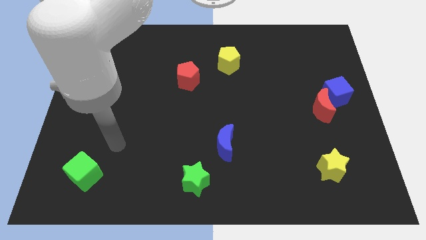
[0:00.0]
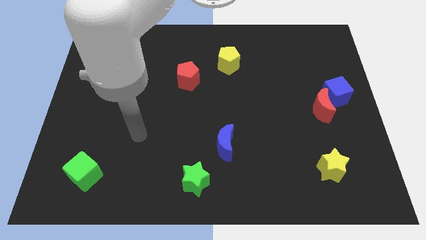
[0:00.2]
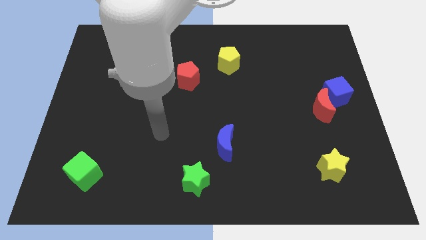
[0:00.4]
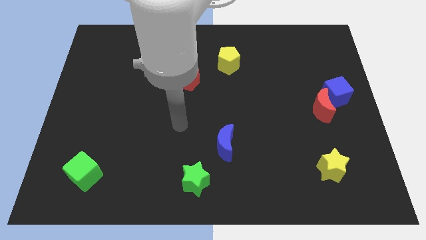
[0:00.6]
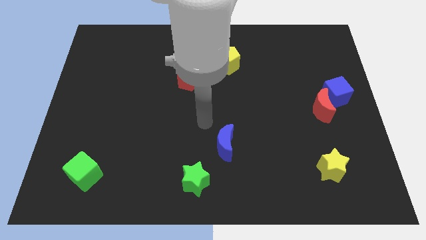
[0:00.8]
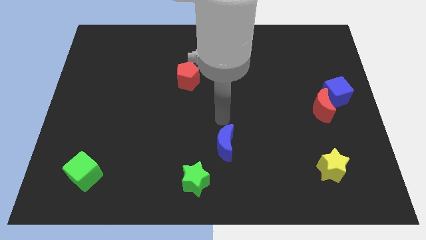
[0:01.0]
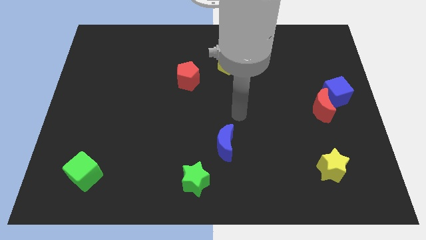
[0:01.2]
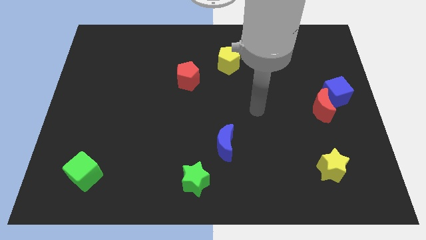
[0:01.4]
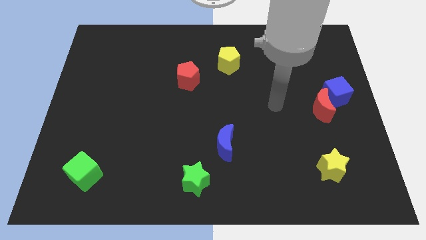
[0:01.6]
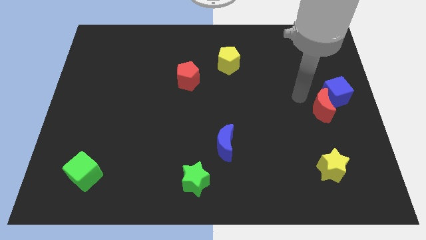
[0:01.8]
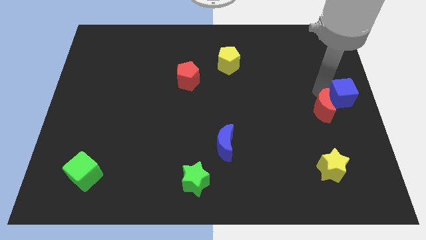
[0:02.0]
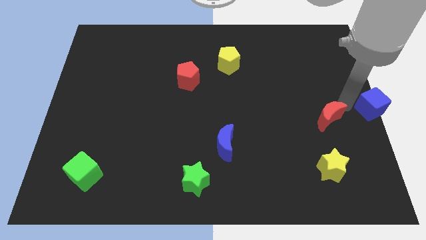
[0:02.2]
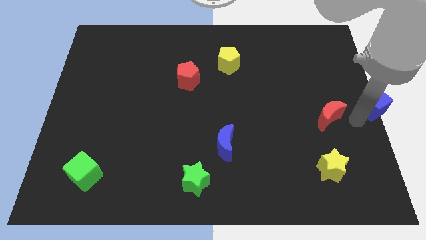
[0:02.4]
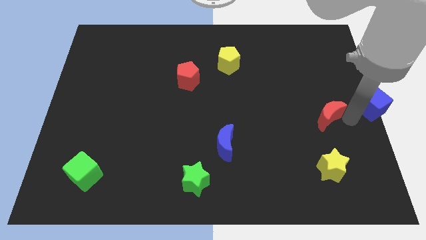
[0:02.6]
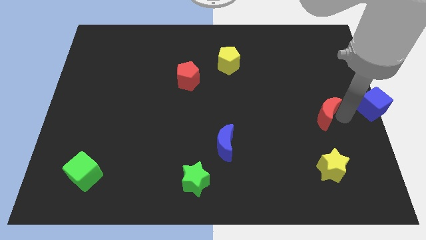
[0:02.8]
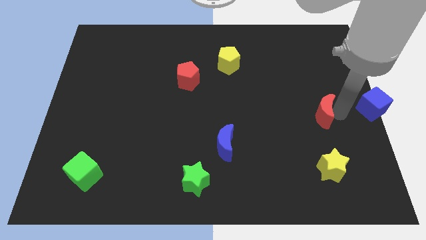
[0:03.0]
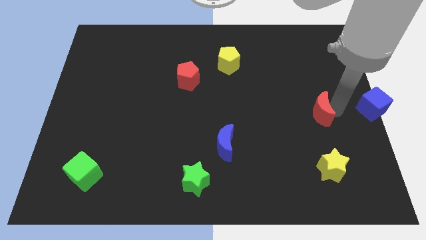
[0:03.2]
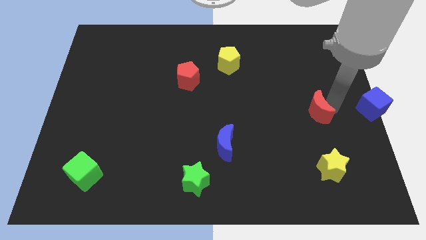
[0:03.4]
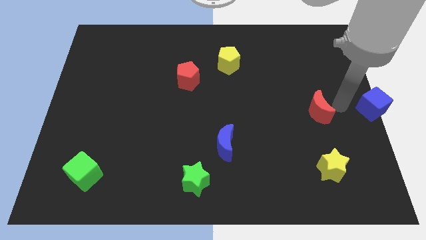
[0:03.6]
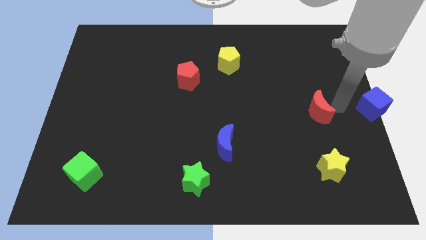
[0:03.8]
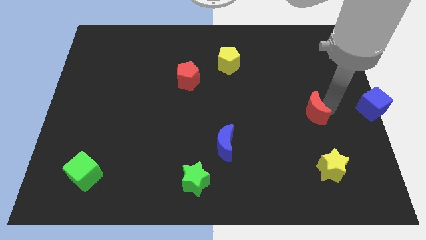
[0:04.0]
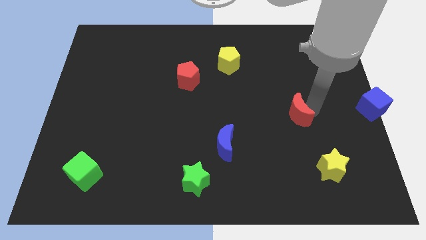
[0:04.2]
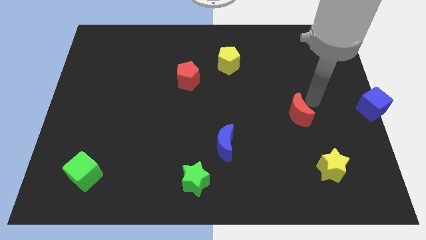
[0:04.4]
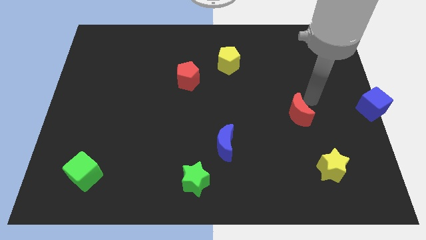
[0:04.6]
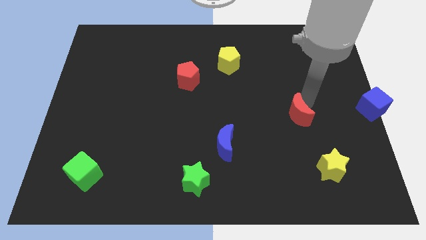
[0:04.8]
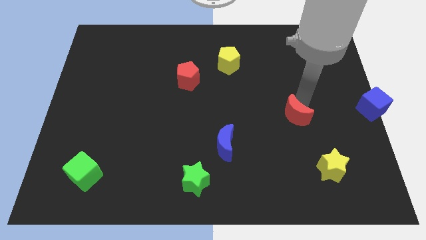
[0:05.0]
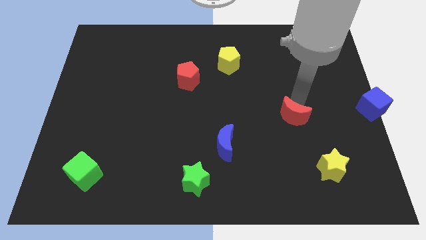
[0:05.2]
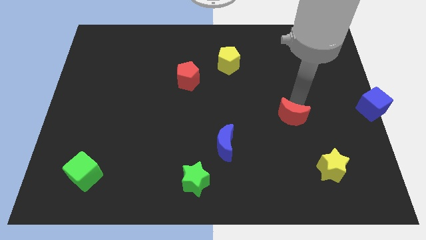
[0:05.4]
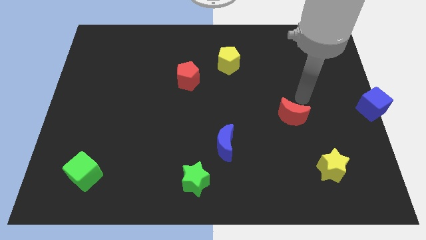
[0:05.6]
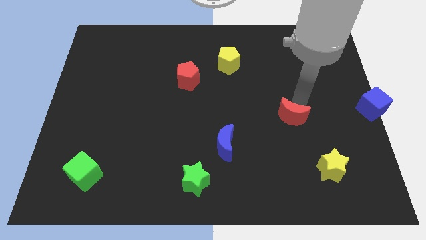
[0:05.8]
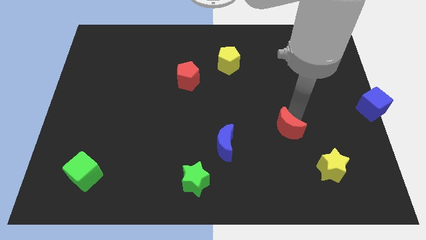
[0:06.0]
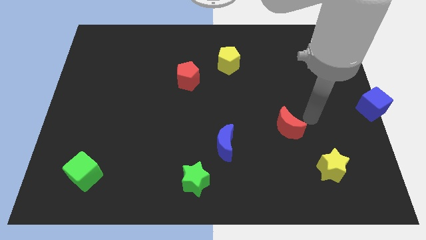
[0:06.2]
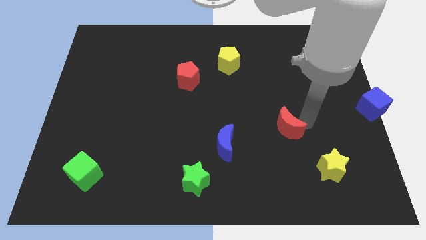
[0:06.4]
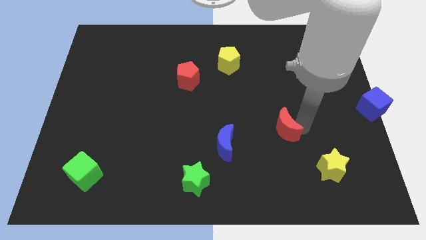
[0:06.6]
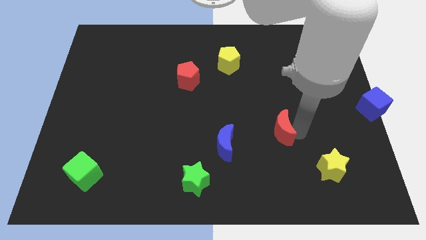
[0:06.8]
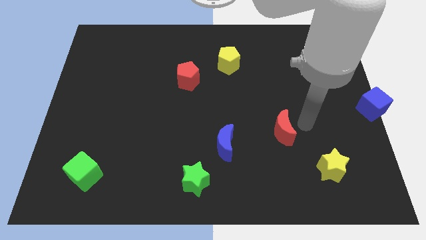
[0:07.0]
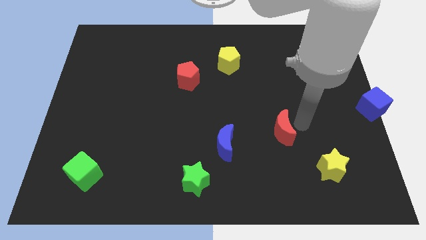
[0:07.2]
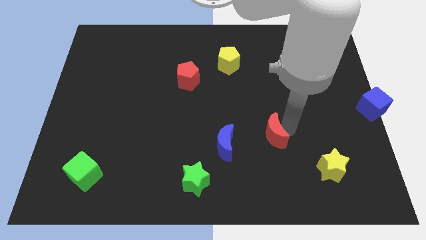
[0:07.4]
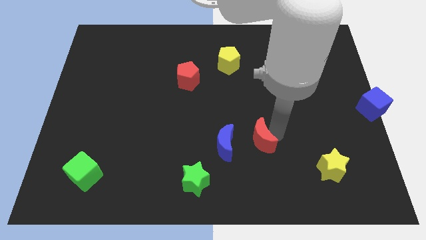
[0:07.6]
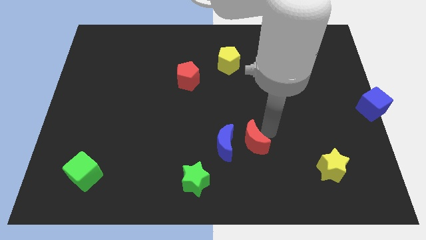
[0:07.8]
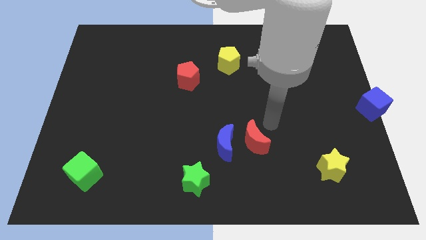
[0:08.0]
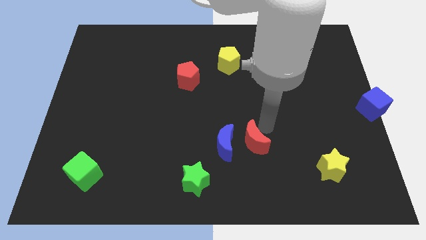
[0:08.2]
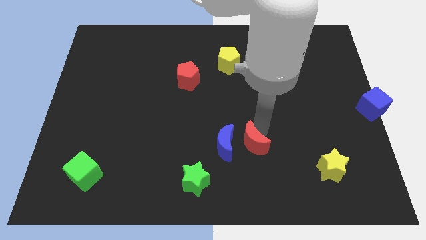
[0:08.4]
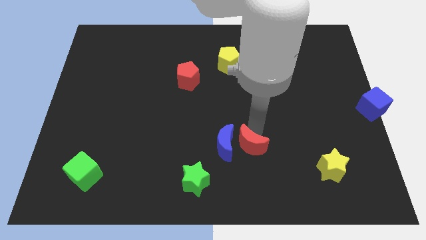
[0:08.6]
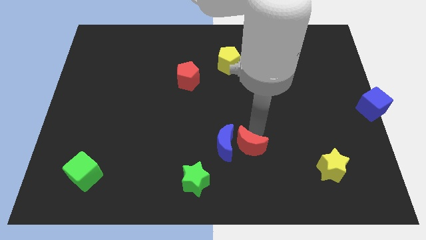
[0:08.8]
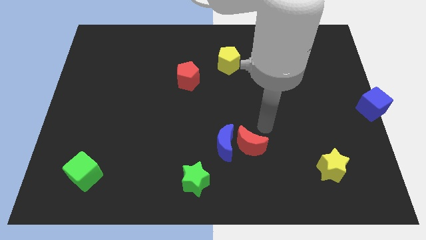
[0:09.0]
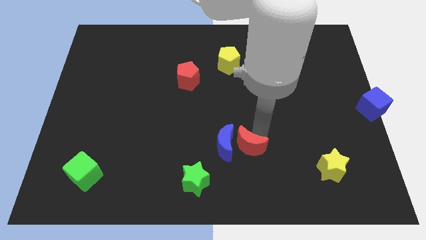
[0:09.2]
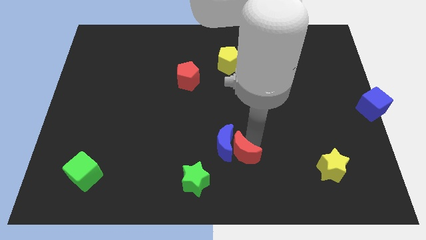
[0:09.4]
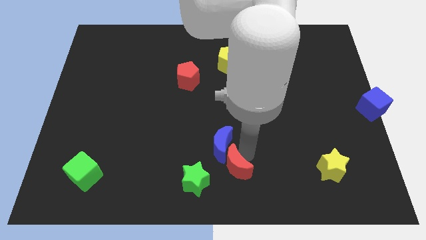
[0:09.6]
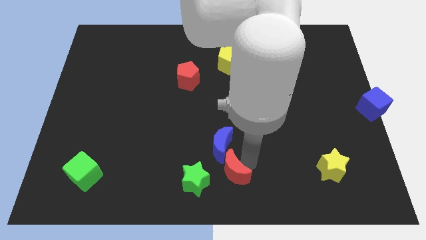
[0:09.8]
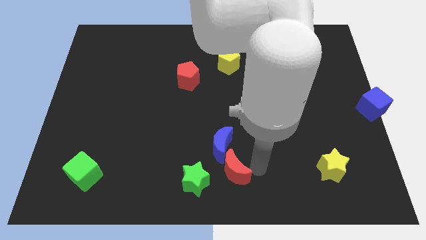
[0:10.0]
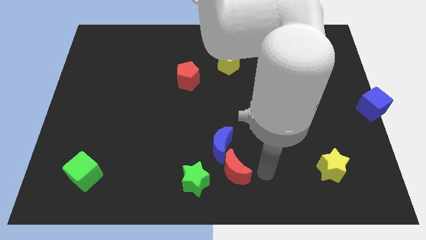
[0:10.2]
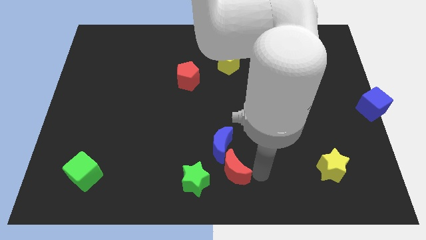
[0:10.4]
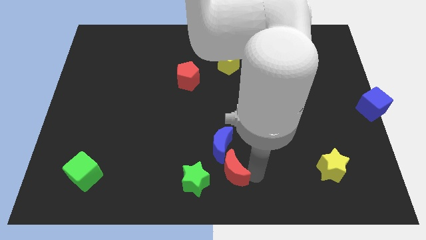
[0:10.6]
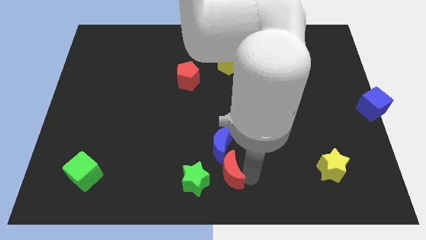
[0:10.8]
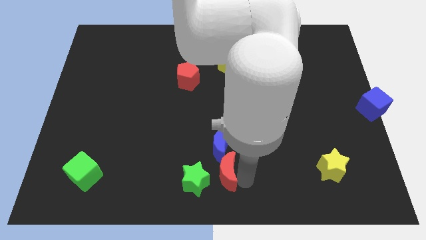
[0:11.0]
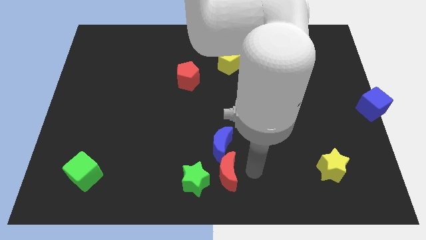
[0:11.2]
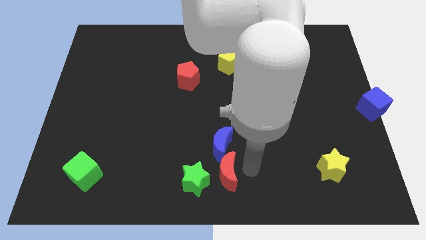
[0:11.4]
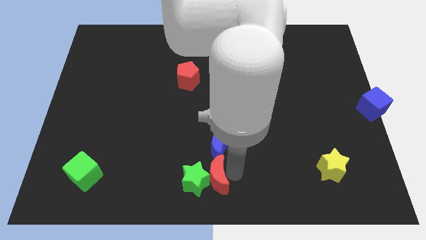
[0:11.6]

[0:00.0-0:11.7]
slide the red moon to the green star

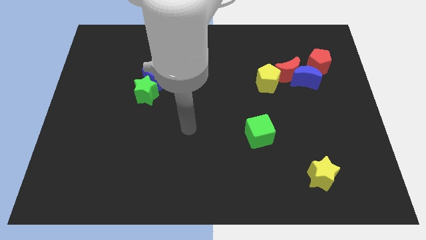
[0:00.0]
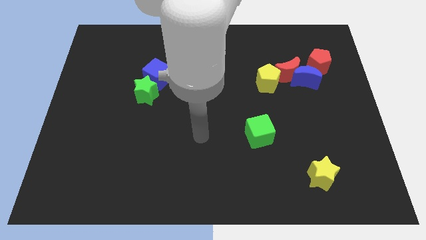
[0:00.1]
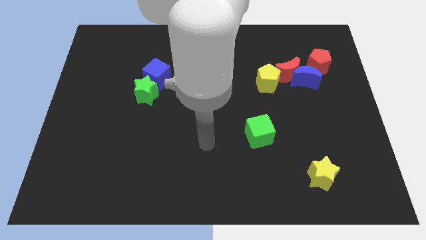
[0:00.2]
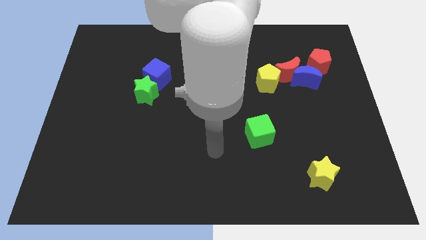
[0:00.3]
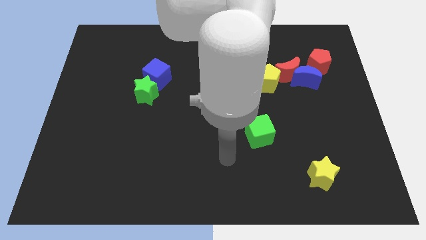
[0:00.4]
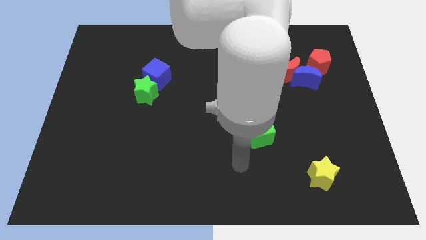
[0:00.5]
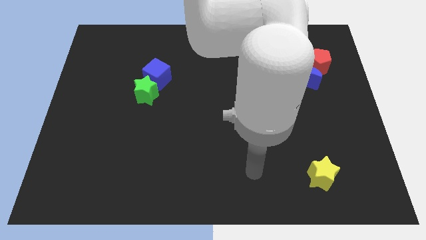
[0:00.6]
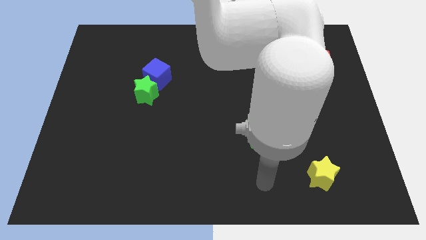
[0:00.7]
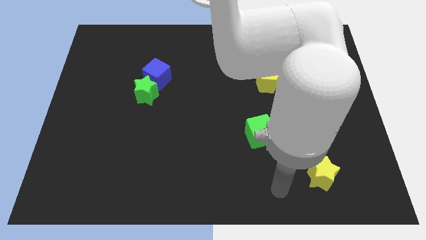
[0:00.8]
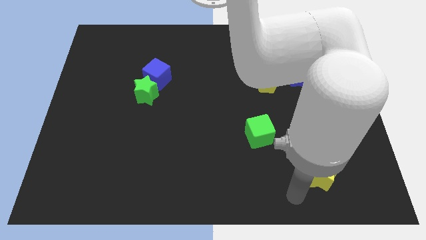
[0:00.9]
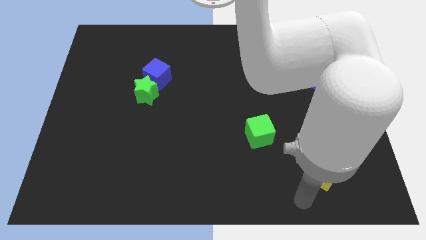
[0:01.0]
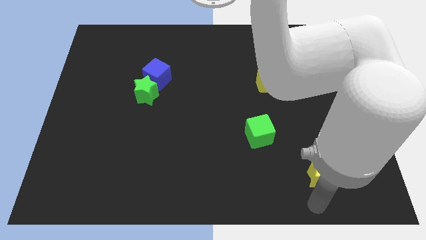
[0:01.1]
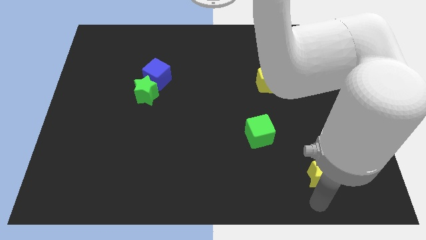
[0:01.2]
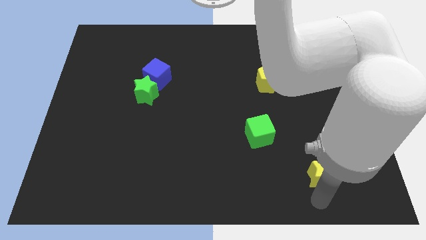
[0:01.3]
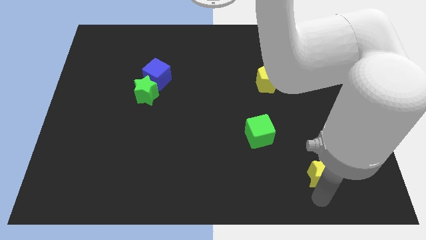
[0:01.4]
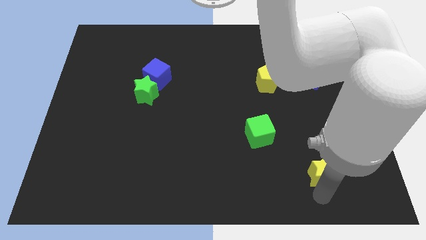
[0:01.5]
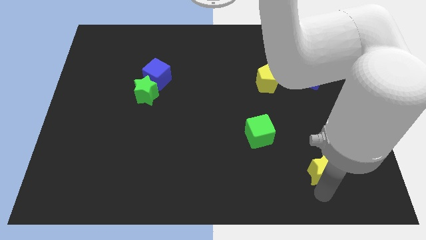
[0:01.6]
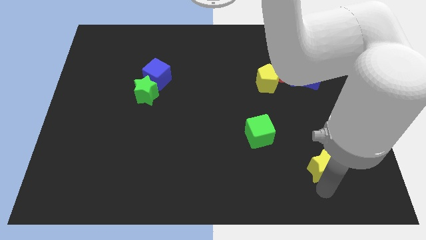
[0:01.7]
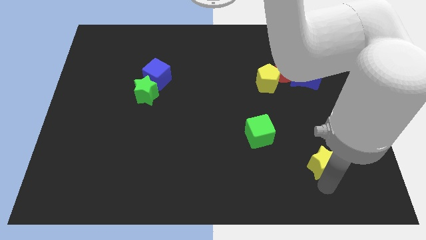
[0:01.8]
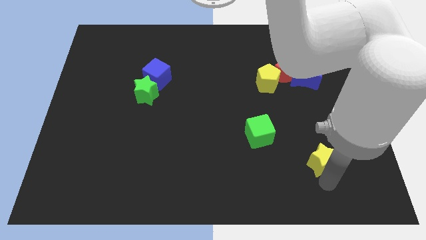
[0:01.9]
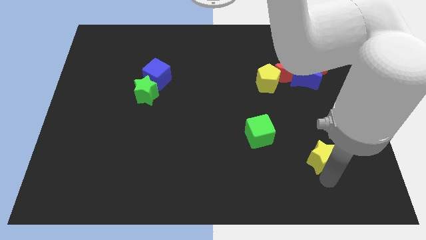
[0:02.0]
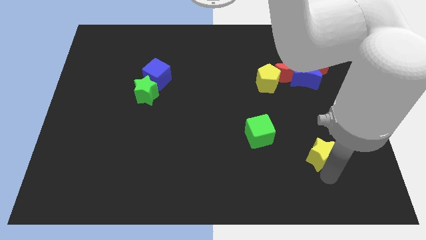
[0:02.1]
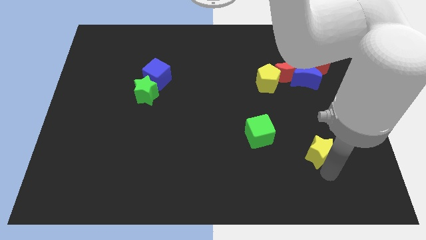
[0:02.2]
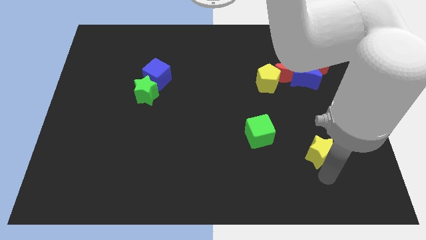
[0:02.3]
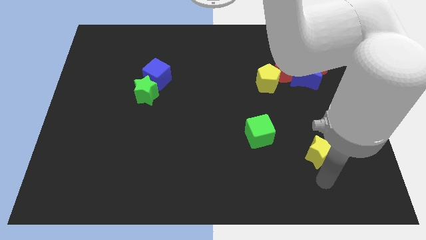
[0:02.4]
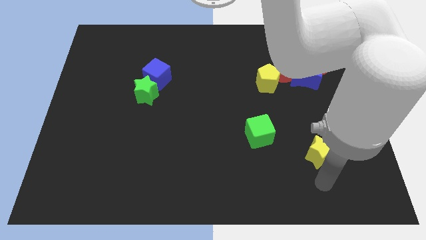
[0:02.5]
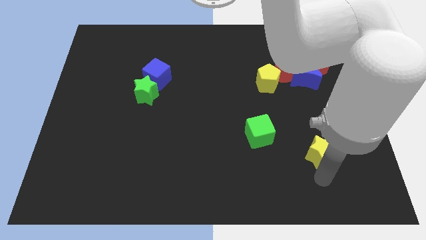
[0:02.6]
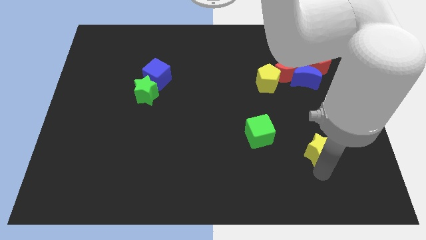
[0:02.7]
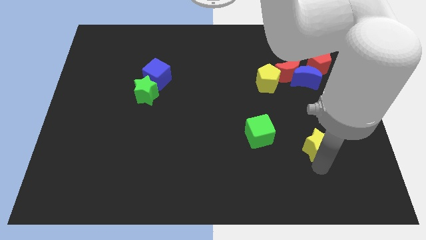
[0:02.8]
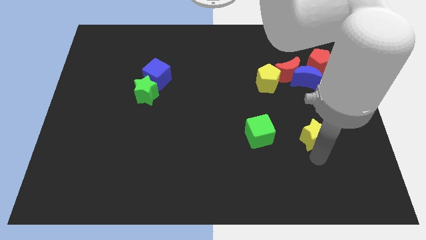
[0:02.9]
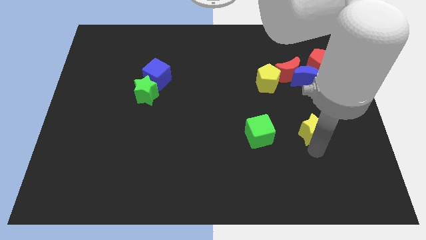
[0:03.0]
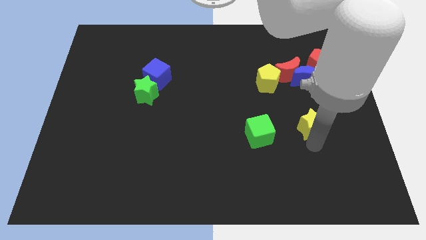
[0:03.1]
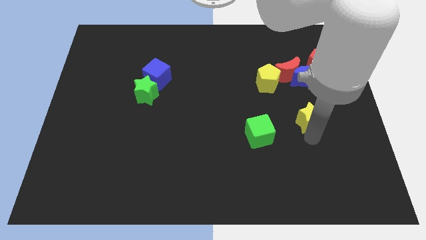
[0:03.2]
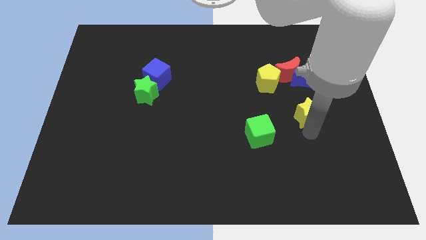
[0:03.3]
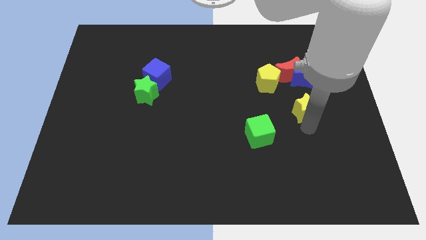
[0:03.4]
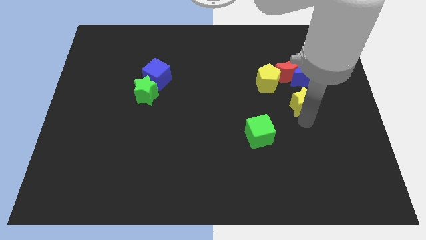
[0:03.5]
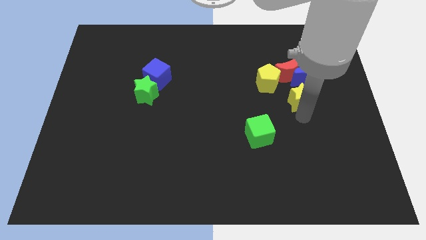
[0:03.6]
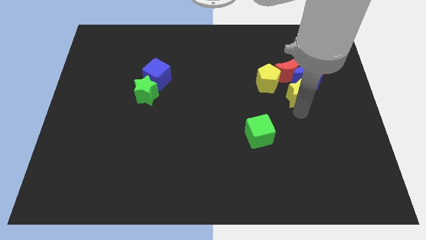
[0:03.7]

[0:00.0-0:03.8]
slide the yellow star towards the blue moon
